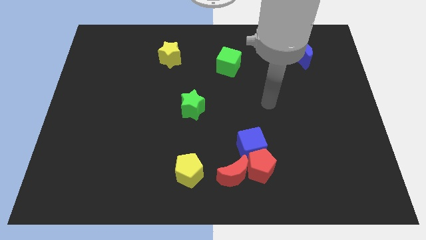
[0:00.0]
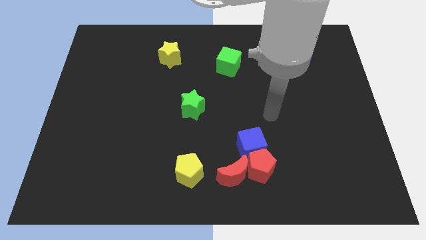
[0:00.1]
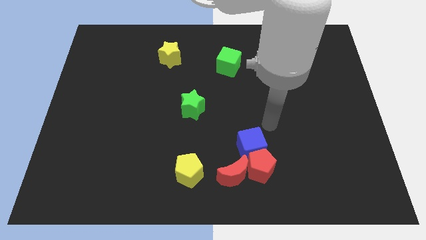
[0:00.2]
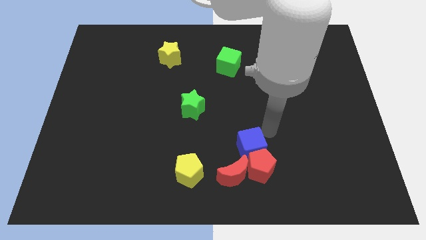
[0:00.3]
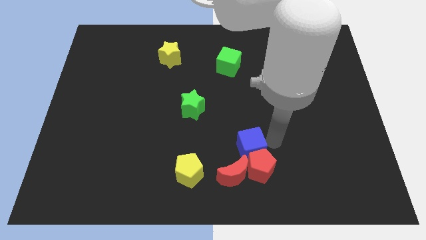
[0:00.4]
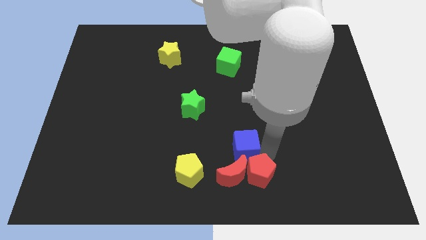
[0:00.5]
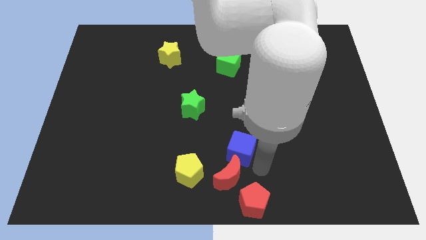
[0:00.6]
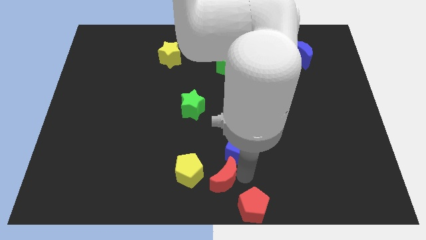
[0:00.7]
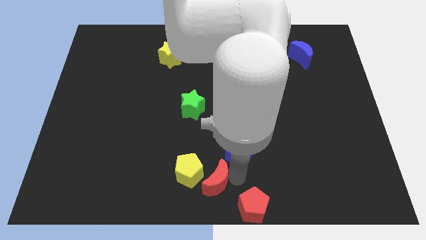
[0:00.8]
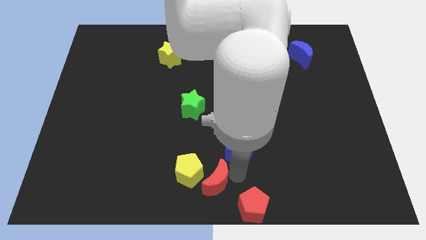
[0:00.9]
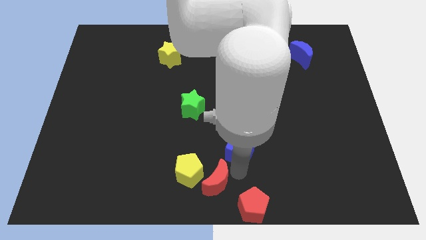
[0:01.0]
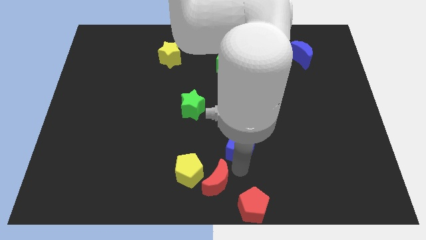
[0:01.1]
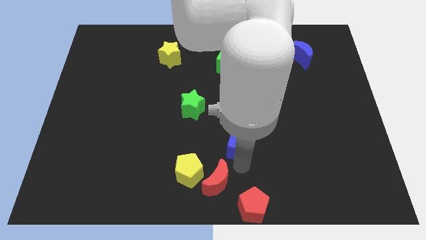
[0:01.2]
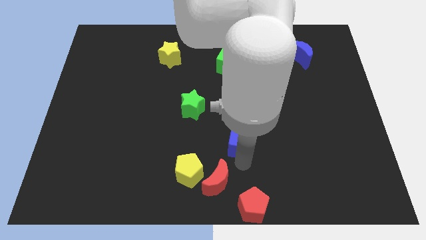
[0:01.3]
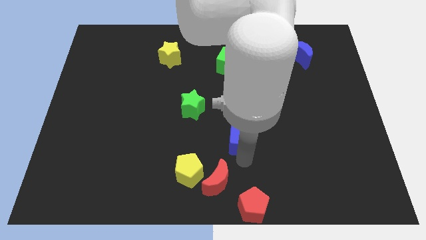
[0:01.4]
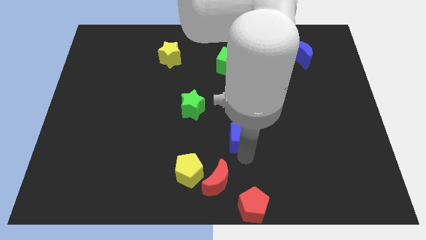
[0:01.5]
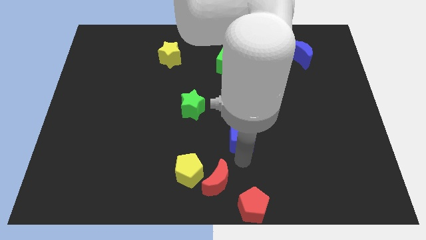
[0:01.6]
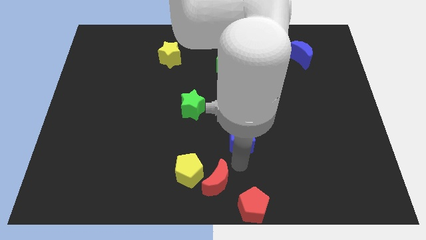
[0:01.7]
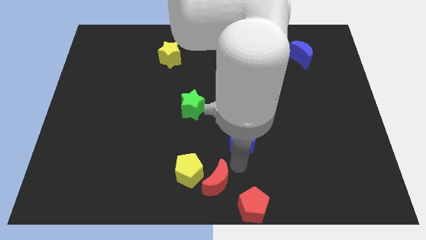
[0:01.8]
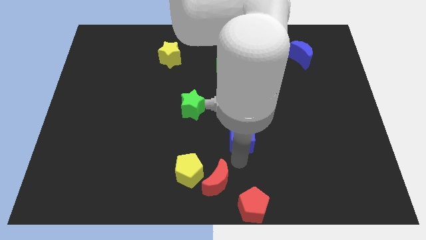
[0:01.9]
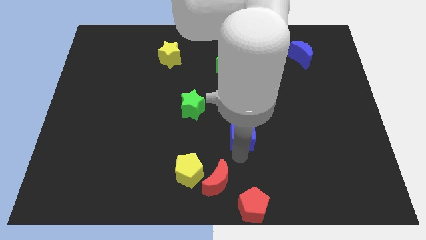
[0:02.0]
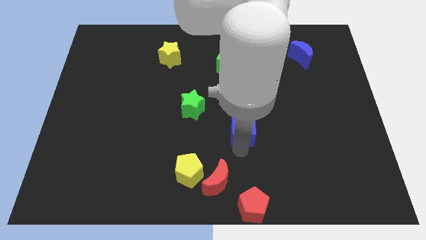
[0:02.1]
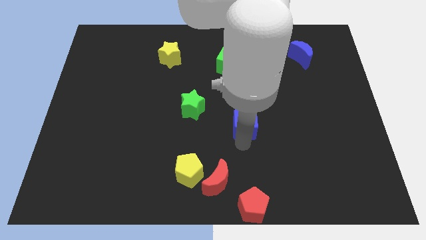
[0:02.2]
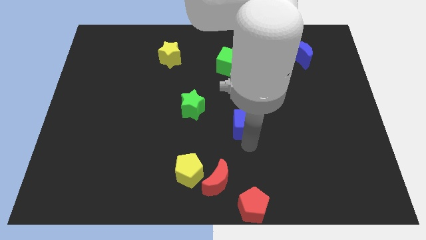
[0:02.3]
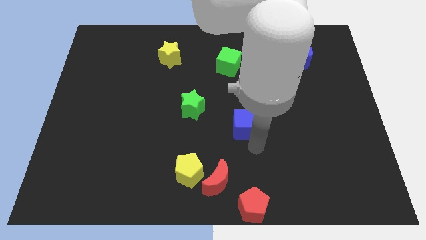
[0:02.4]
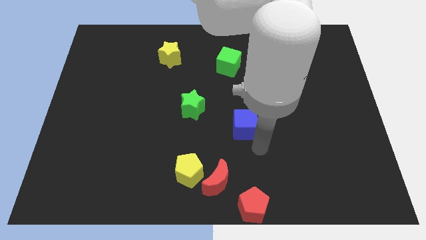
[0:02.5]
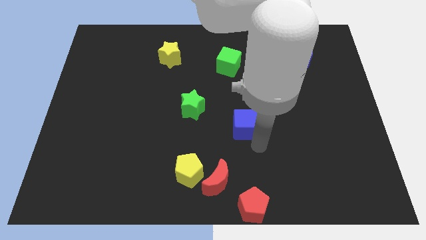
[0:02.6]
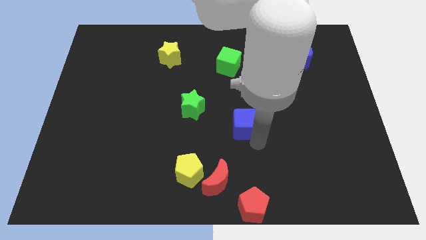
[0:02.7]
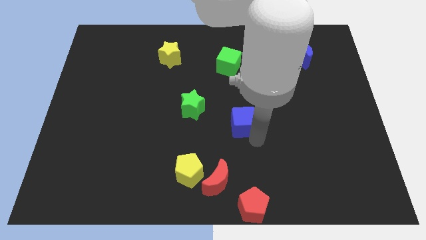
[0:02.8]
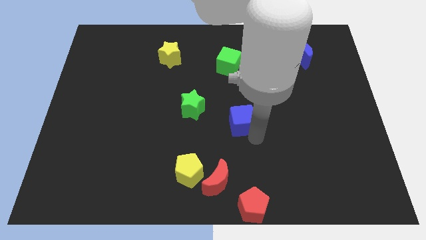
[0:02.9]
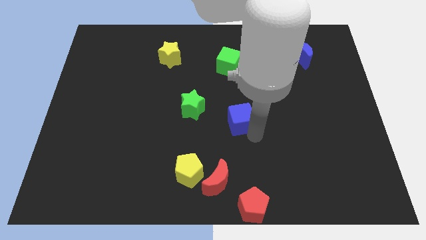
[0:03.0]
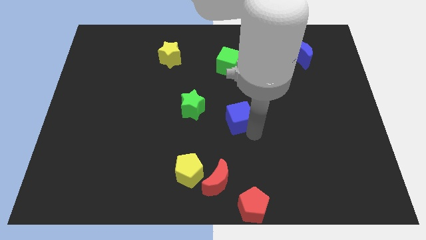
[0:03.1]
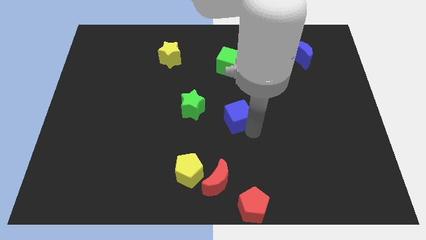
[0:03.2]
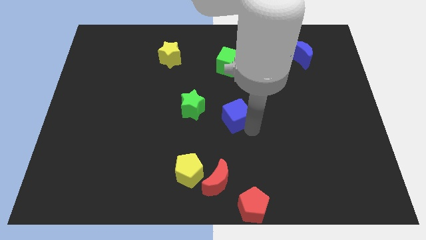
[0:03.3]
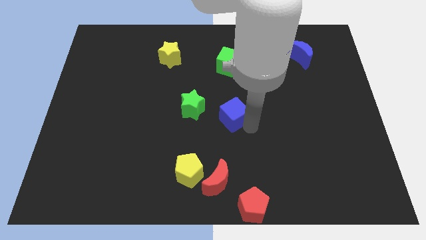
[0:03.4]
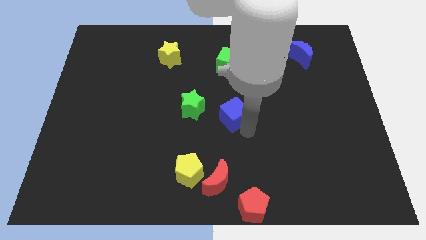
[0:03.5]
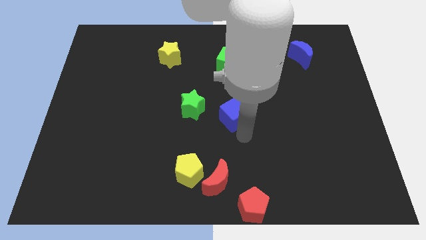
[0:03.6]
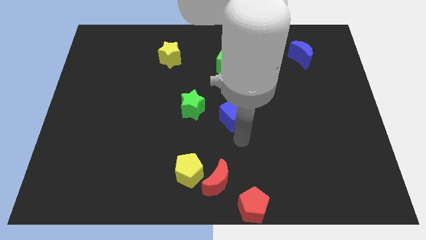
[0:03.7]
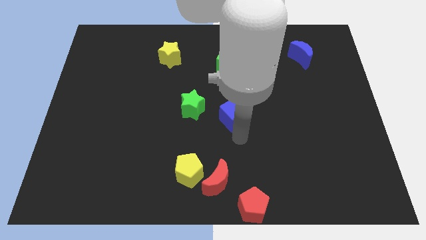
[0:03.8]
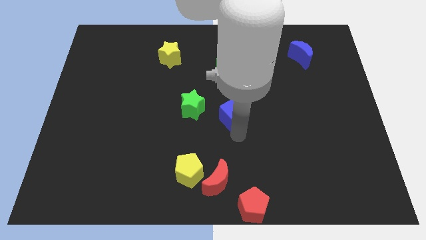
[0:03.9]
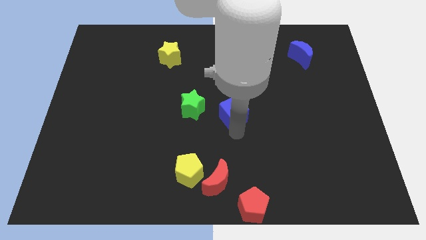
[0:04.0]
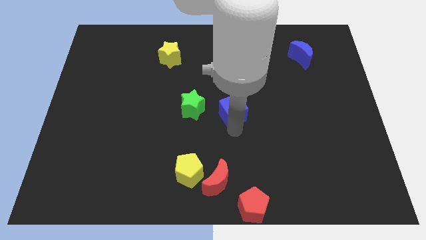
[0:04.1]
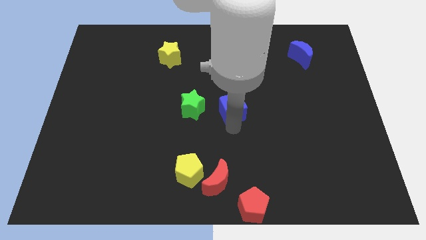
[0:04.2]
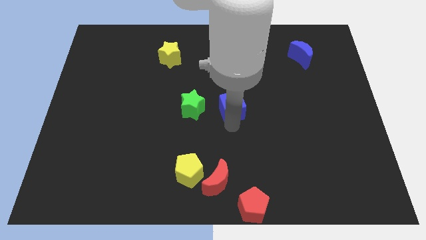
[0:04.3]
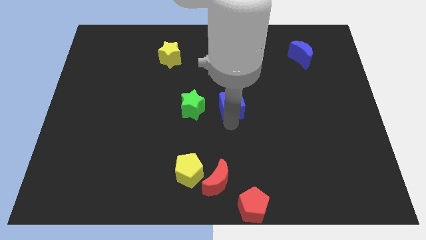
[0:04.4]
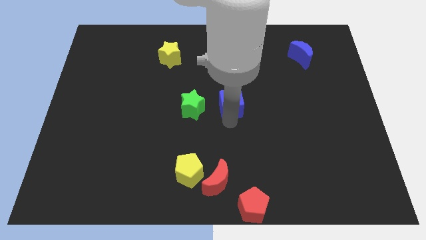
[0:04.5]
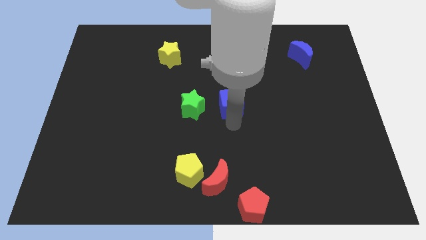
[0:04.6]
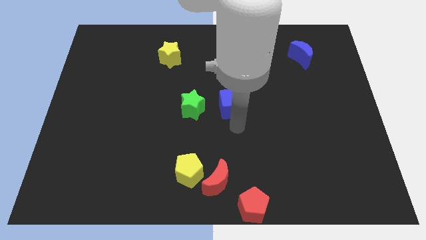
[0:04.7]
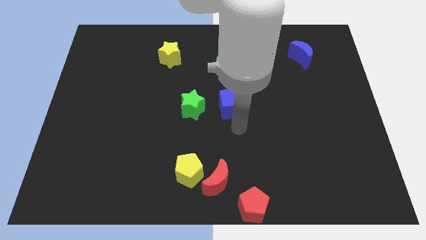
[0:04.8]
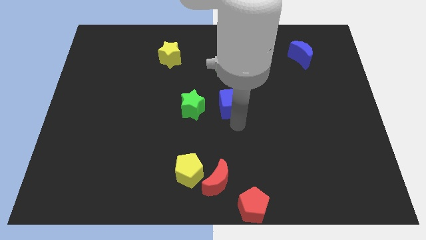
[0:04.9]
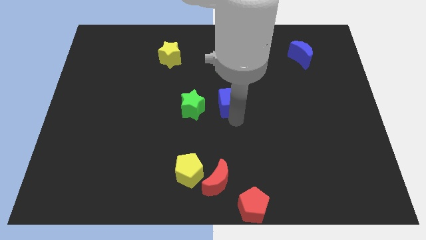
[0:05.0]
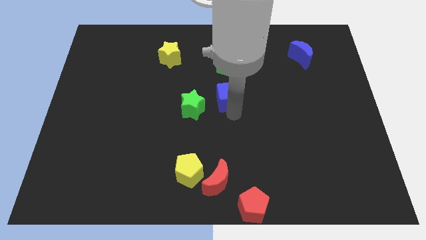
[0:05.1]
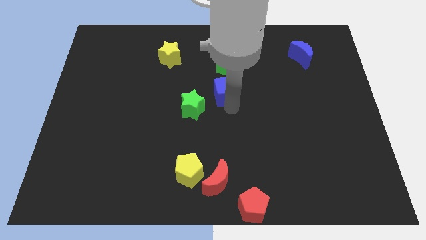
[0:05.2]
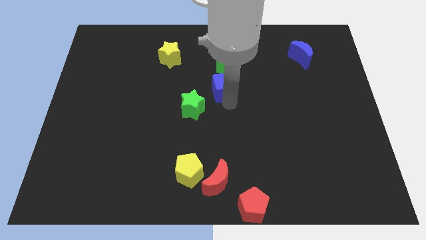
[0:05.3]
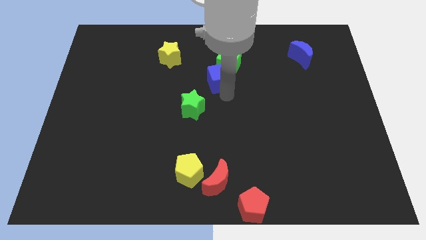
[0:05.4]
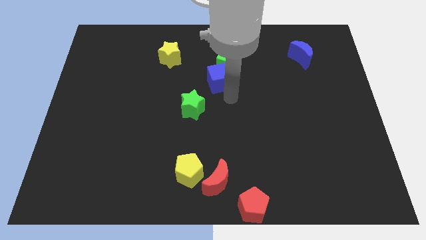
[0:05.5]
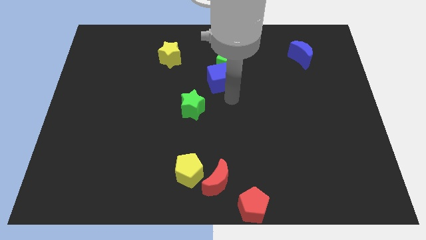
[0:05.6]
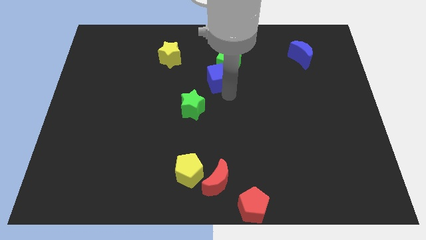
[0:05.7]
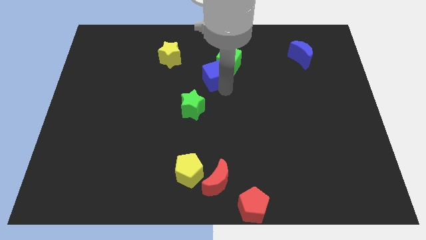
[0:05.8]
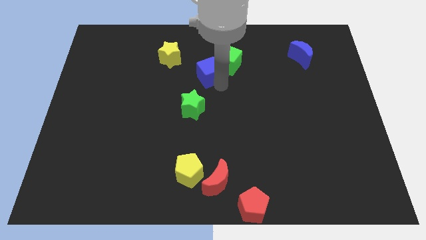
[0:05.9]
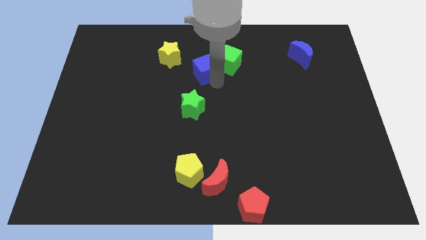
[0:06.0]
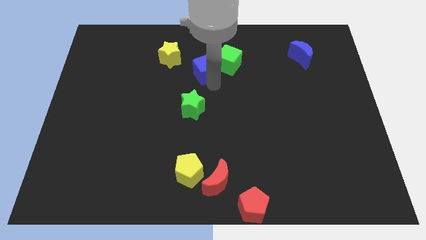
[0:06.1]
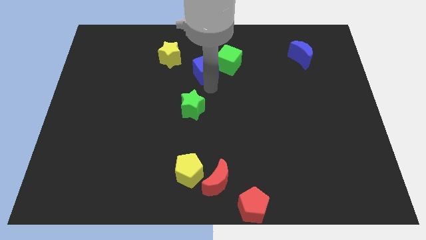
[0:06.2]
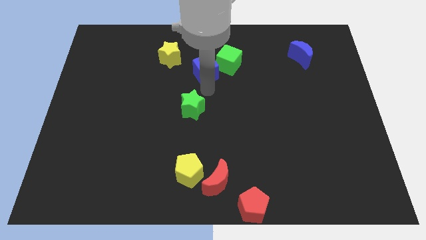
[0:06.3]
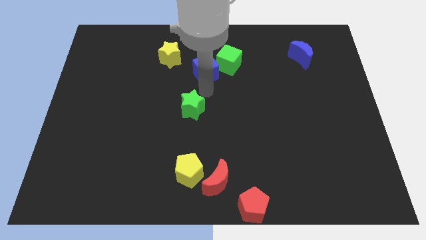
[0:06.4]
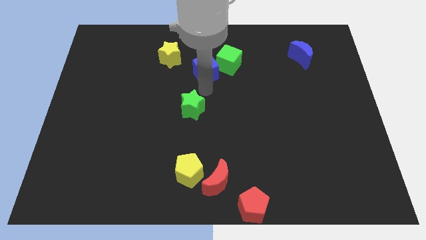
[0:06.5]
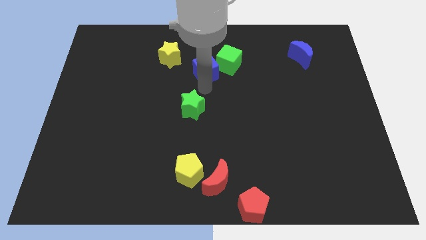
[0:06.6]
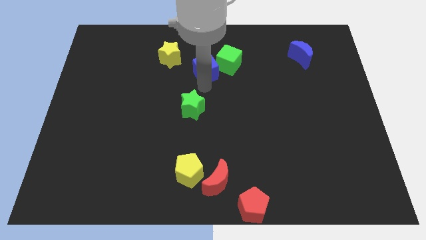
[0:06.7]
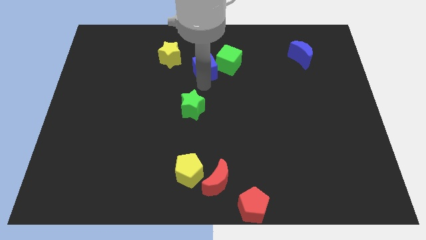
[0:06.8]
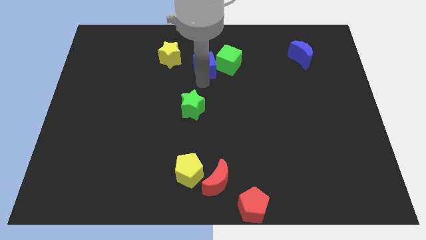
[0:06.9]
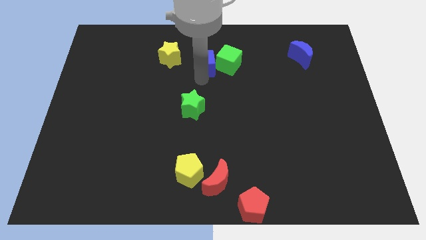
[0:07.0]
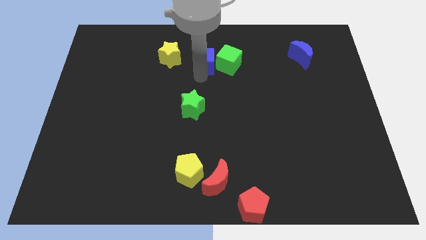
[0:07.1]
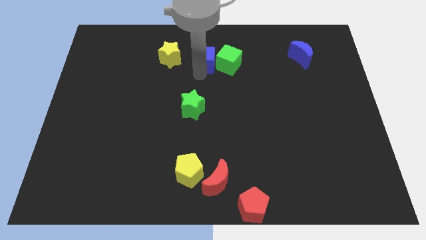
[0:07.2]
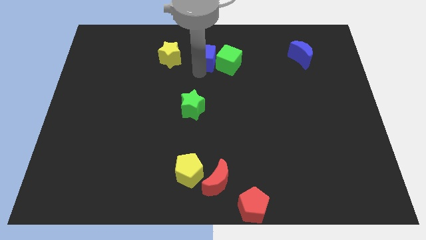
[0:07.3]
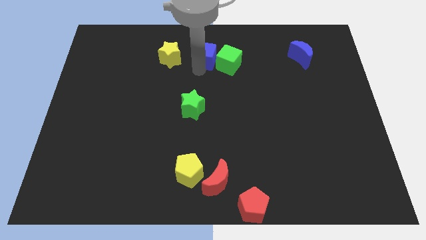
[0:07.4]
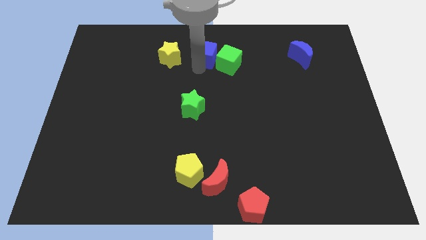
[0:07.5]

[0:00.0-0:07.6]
move the blue cube to the top side
